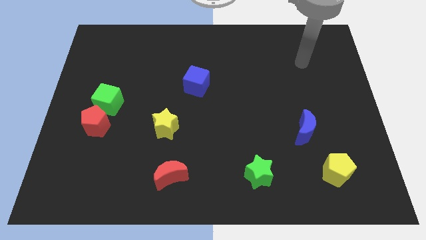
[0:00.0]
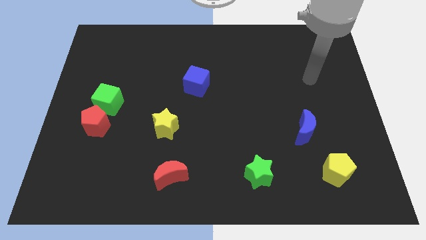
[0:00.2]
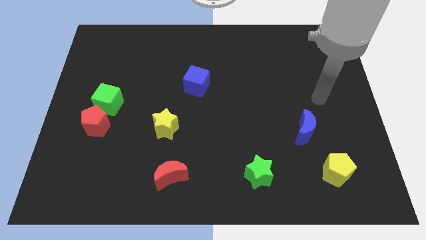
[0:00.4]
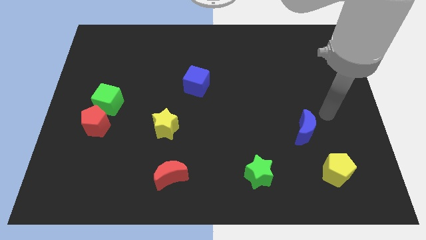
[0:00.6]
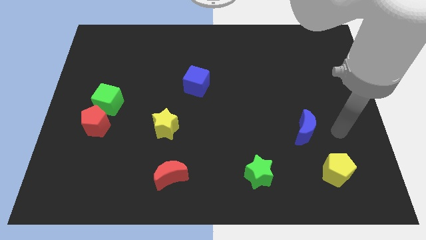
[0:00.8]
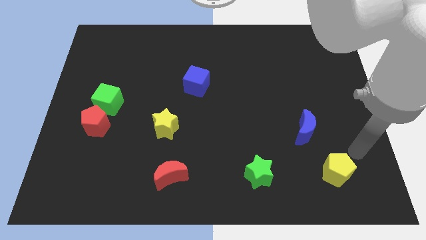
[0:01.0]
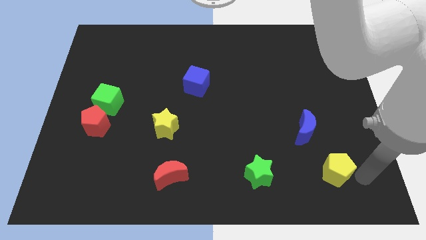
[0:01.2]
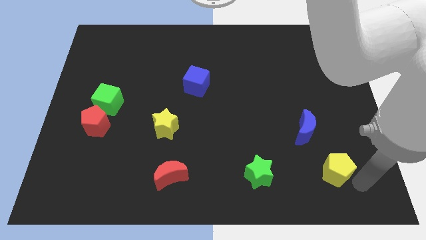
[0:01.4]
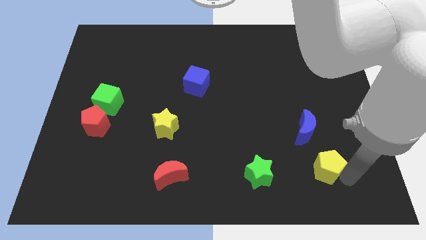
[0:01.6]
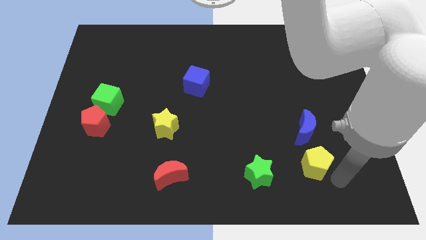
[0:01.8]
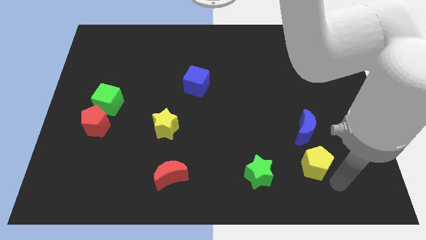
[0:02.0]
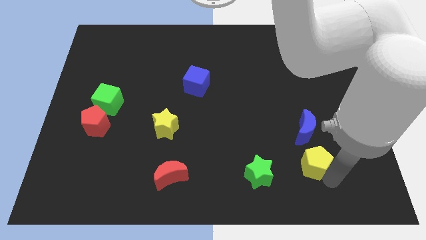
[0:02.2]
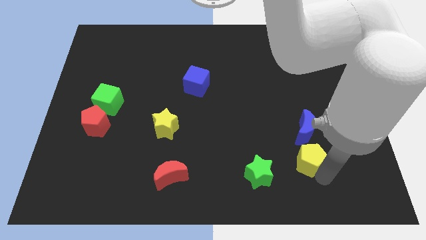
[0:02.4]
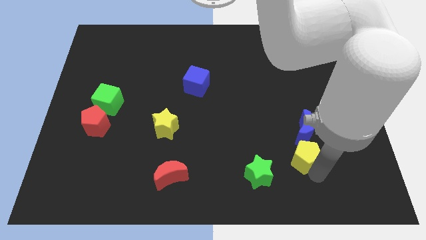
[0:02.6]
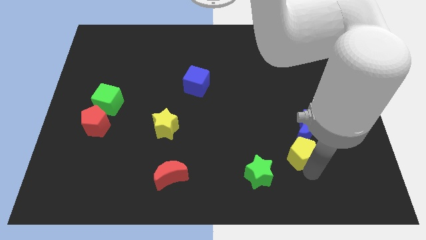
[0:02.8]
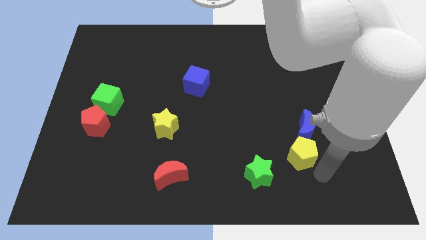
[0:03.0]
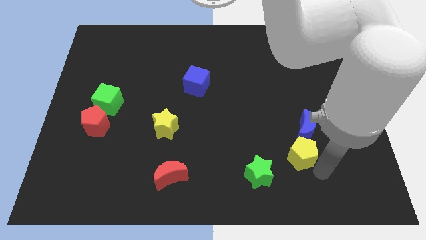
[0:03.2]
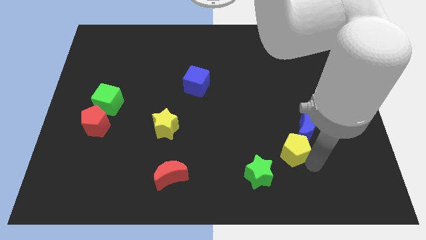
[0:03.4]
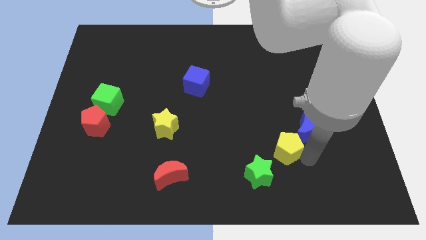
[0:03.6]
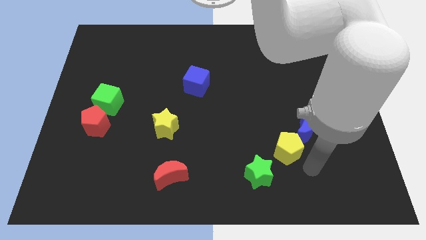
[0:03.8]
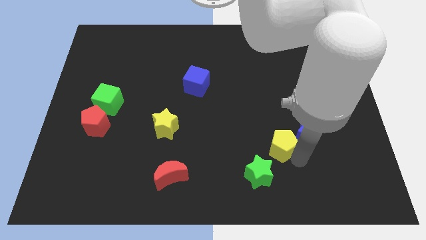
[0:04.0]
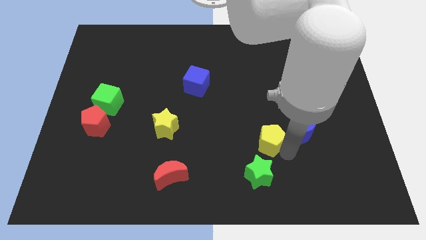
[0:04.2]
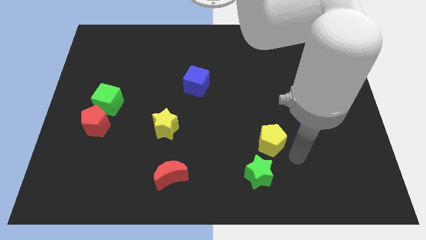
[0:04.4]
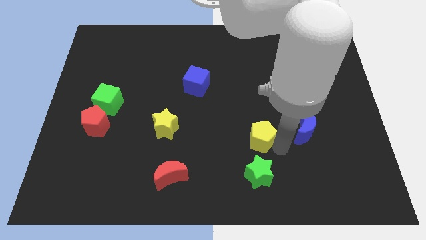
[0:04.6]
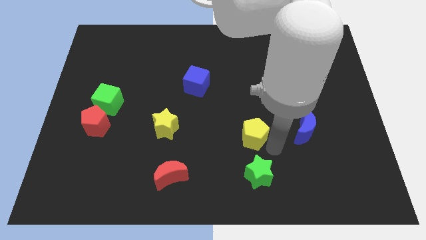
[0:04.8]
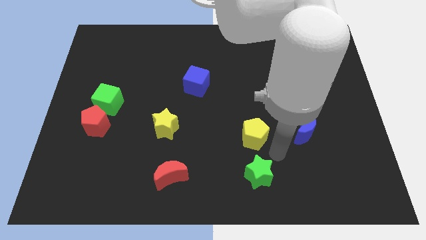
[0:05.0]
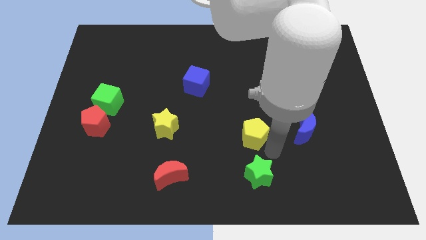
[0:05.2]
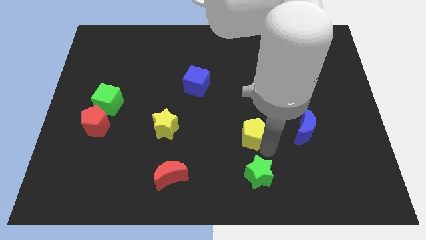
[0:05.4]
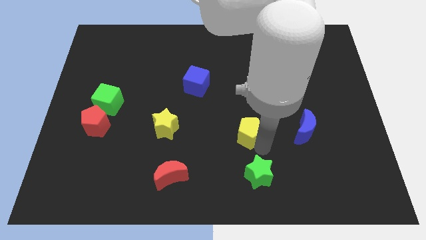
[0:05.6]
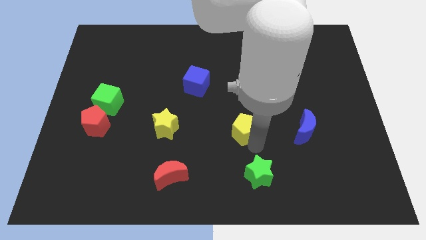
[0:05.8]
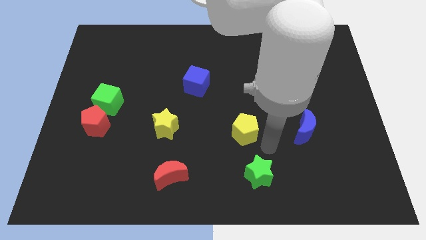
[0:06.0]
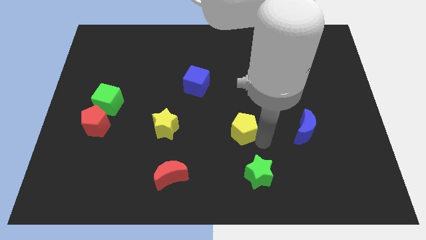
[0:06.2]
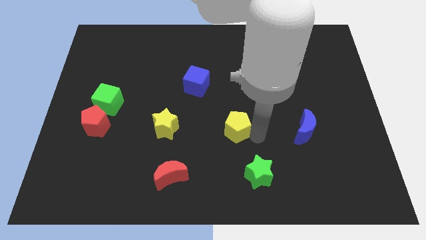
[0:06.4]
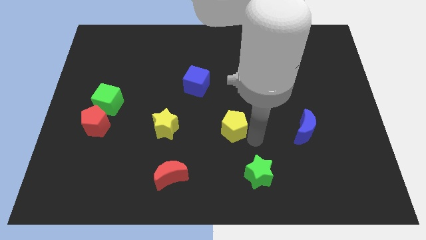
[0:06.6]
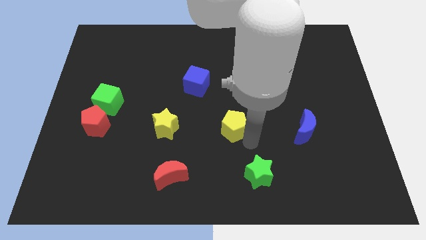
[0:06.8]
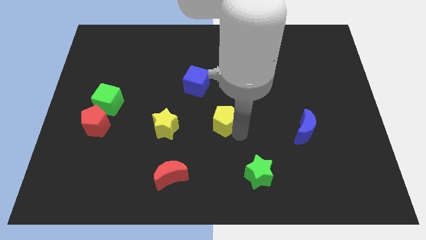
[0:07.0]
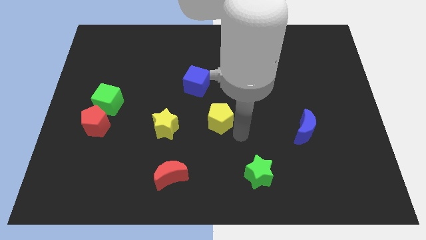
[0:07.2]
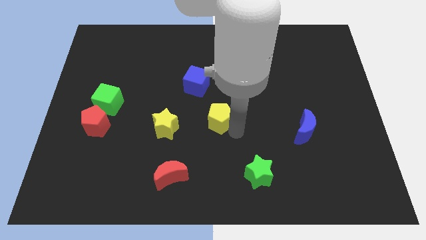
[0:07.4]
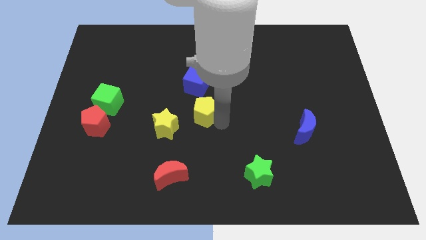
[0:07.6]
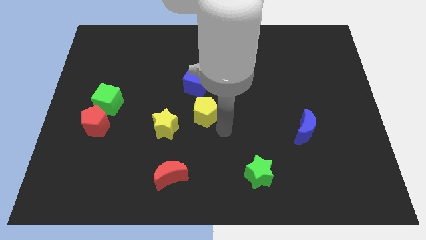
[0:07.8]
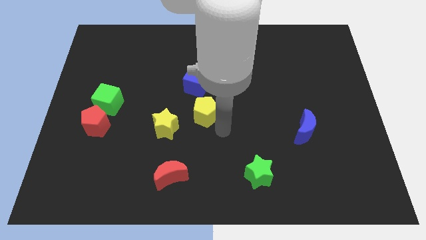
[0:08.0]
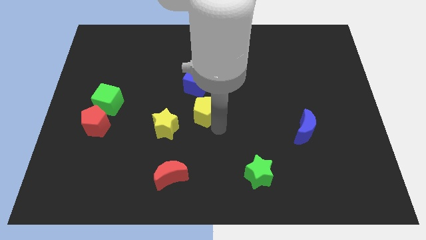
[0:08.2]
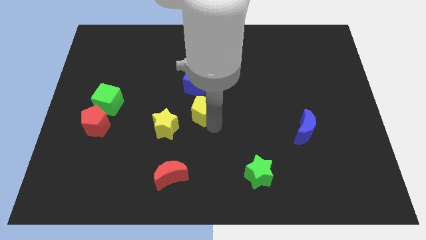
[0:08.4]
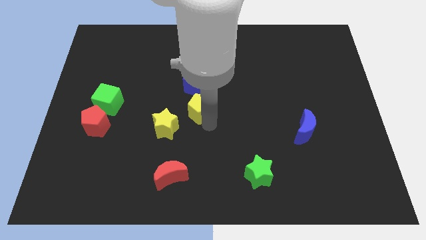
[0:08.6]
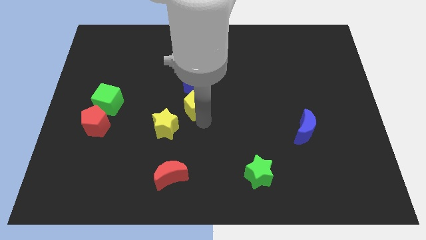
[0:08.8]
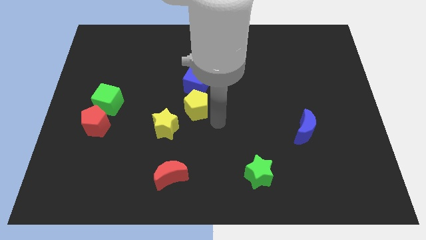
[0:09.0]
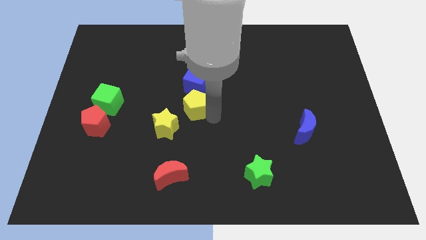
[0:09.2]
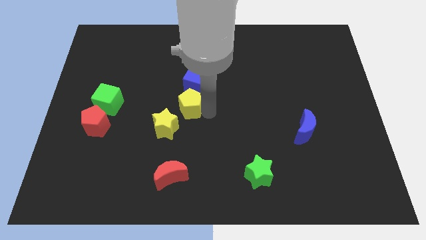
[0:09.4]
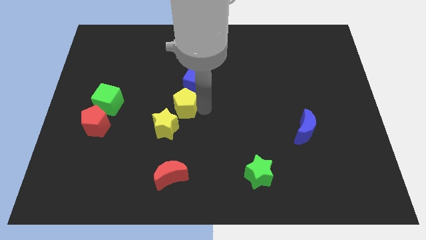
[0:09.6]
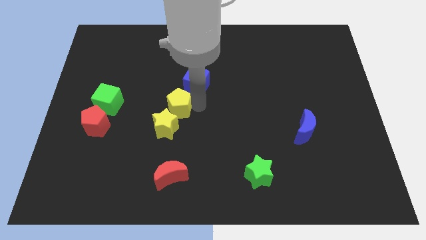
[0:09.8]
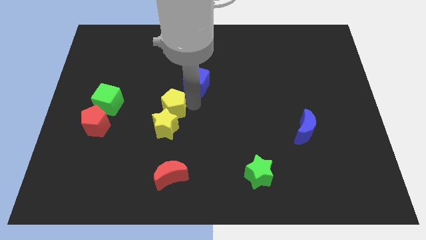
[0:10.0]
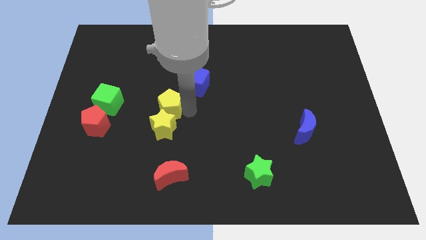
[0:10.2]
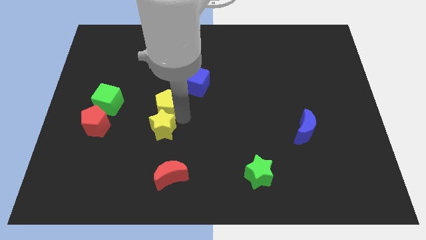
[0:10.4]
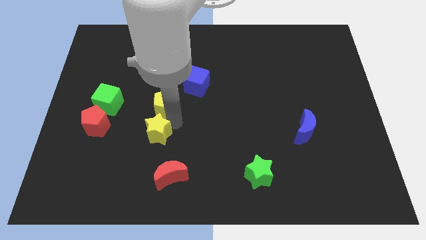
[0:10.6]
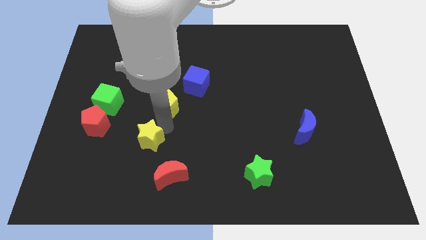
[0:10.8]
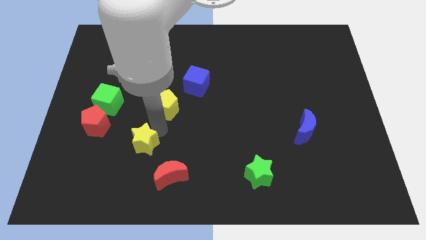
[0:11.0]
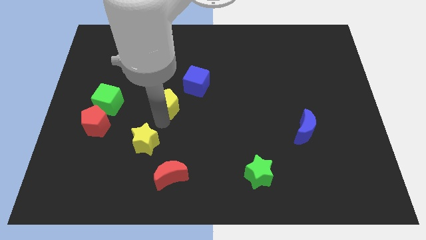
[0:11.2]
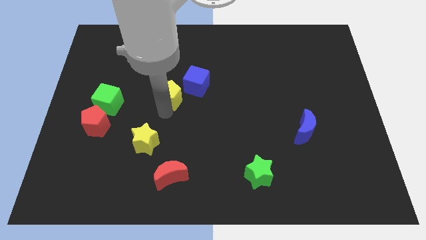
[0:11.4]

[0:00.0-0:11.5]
slide the yellow pentagon to the left of the blue cube

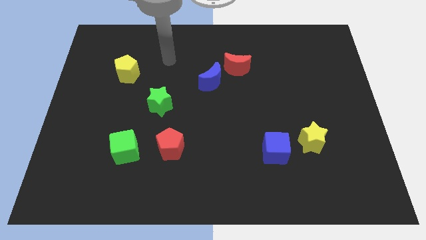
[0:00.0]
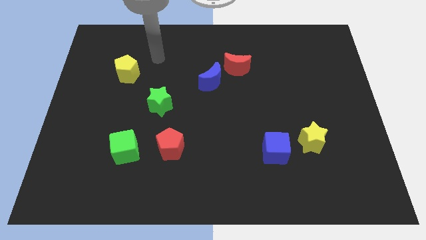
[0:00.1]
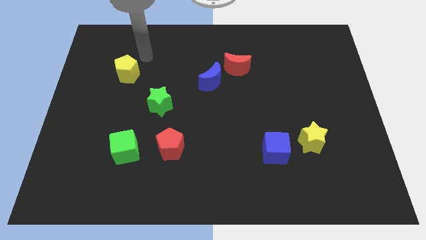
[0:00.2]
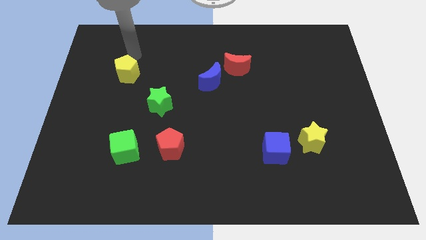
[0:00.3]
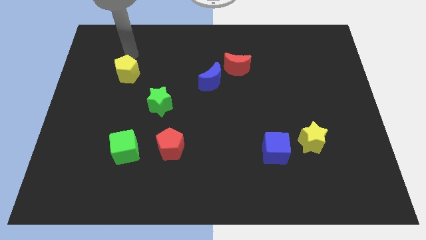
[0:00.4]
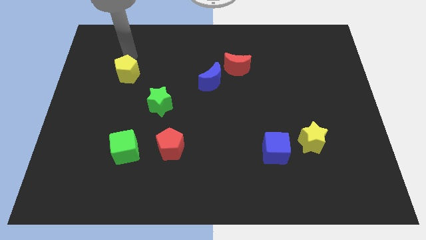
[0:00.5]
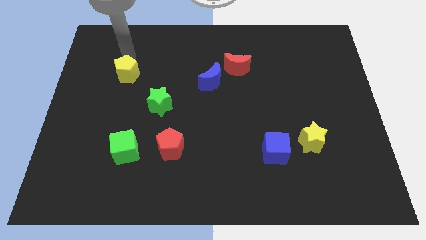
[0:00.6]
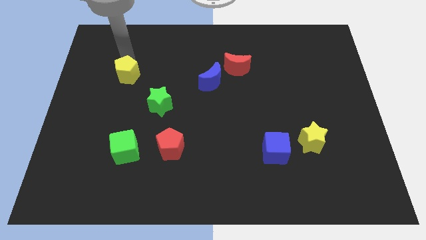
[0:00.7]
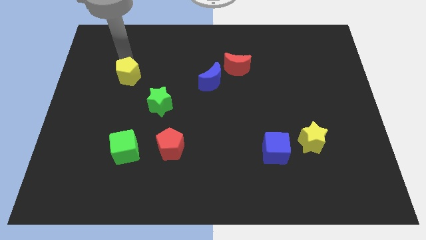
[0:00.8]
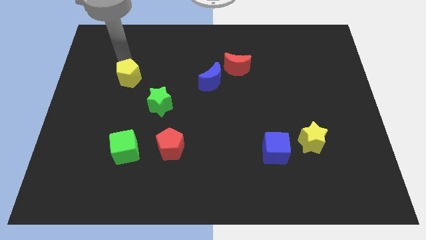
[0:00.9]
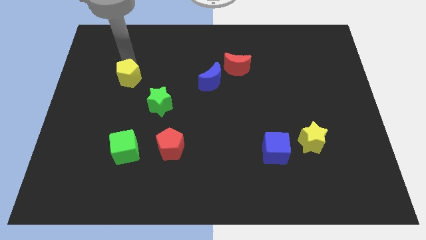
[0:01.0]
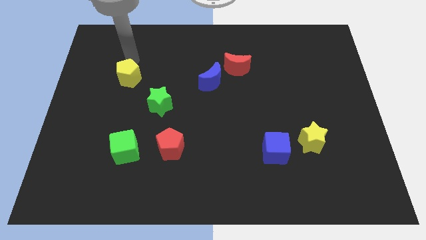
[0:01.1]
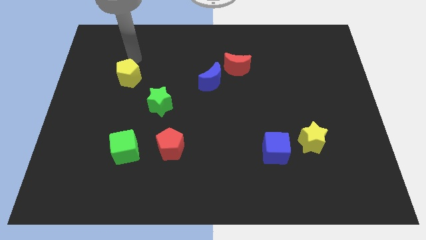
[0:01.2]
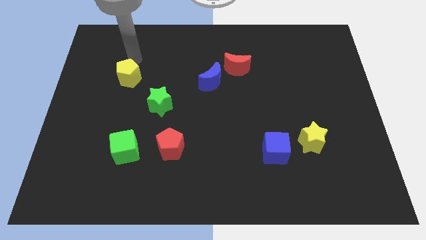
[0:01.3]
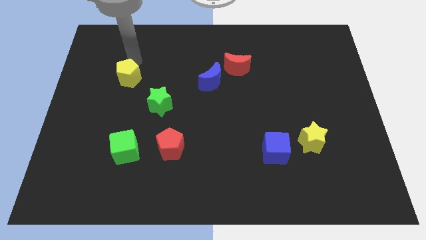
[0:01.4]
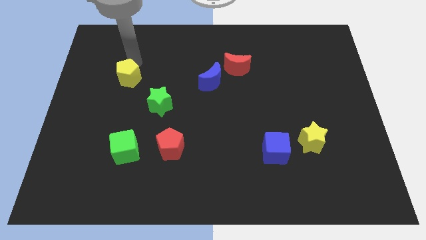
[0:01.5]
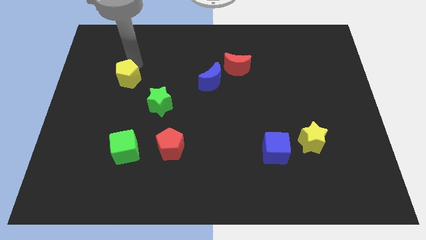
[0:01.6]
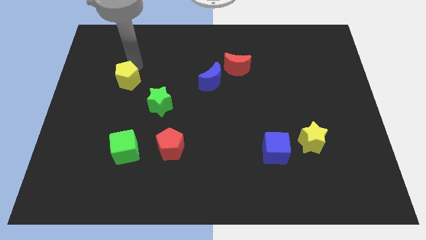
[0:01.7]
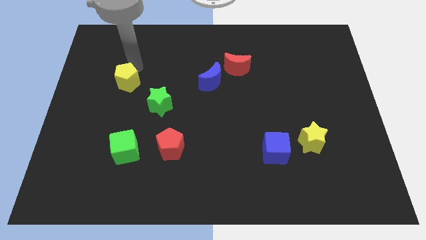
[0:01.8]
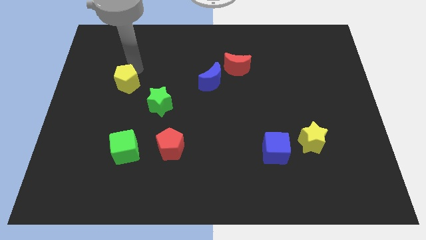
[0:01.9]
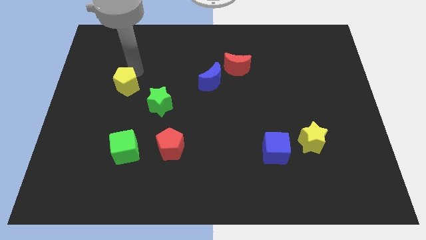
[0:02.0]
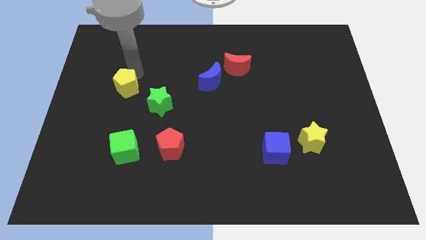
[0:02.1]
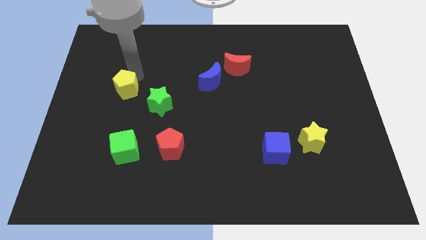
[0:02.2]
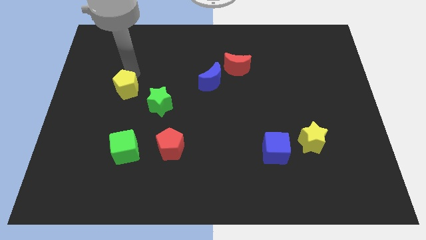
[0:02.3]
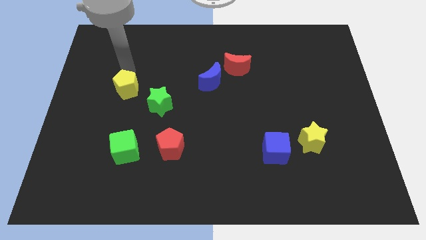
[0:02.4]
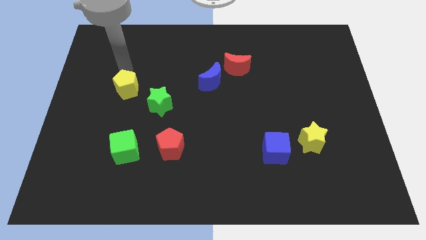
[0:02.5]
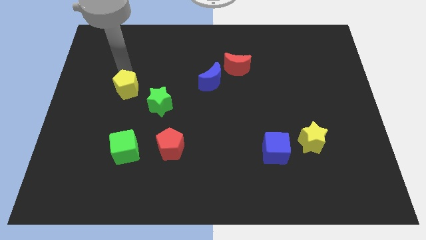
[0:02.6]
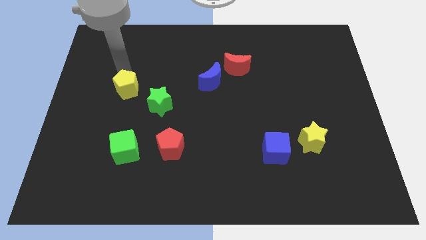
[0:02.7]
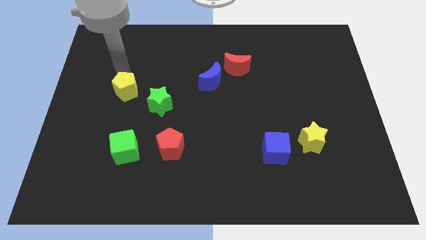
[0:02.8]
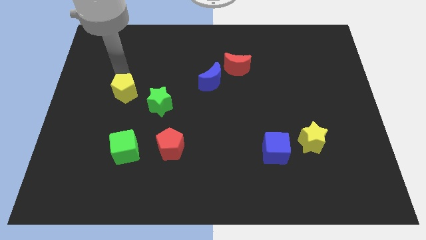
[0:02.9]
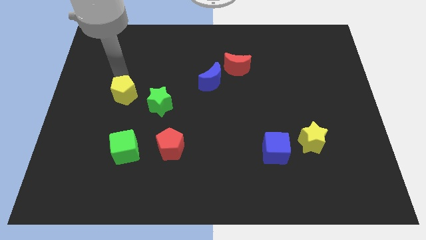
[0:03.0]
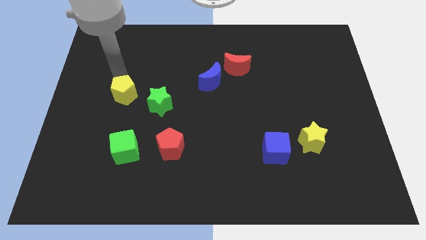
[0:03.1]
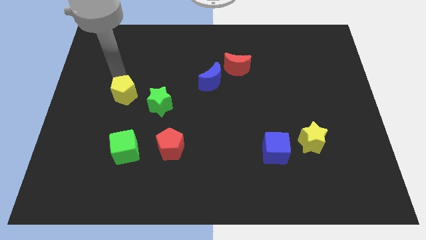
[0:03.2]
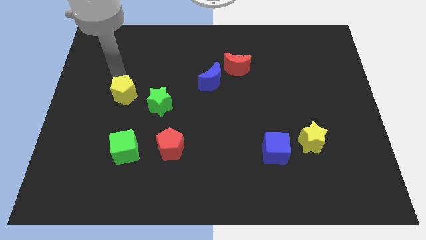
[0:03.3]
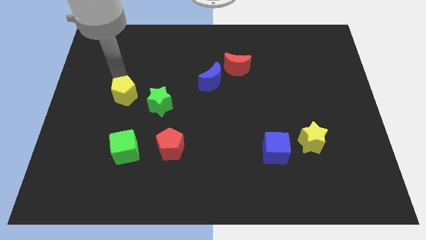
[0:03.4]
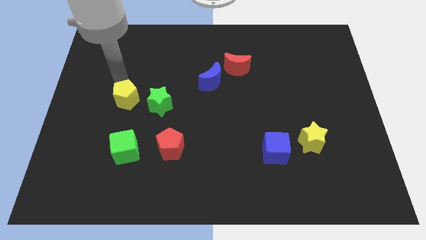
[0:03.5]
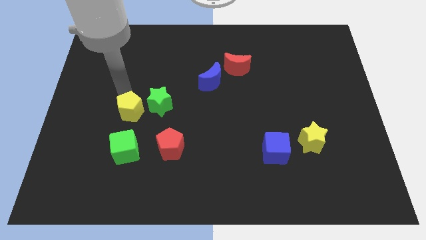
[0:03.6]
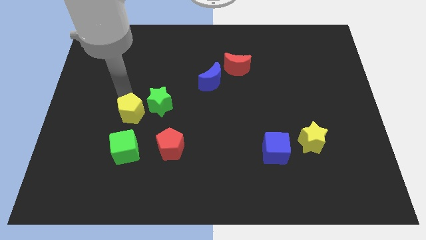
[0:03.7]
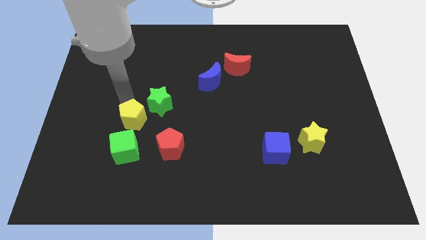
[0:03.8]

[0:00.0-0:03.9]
push the yellow pentagon to the top left of the red pentagon
